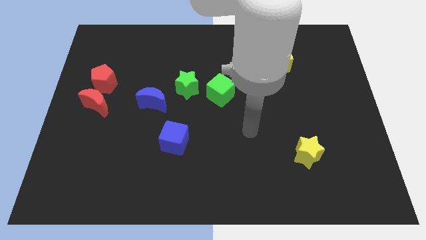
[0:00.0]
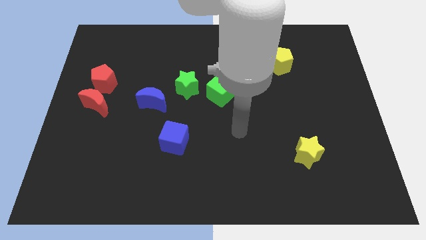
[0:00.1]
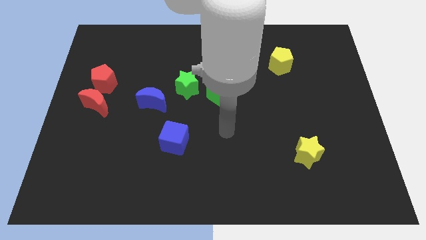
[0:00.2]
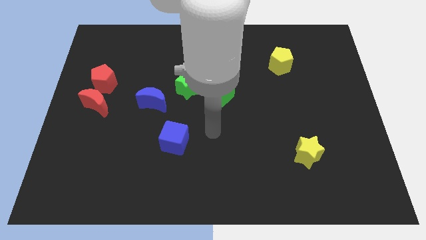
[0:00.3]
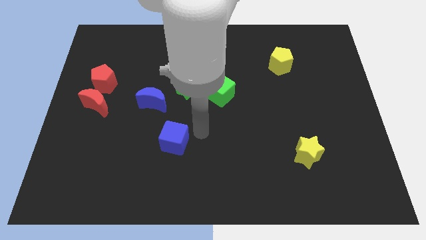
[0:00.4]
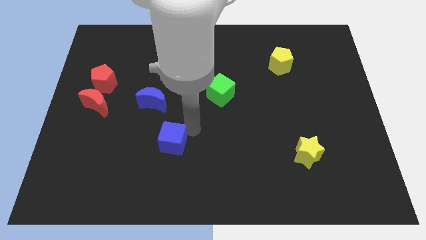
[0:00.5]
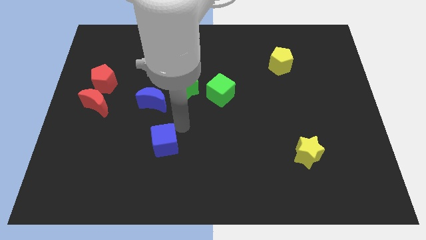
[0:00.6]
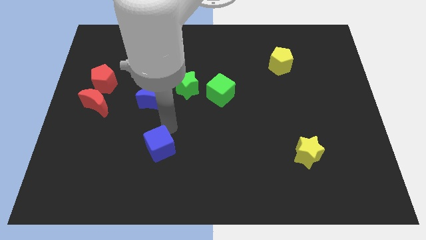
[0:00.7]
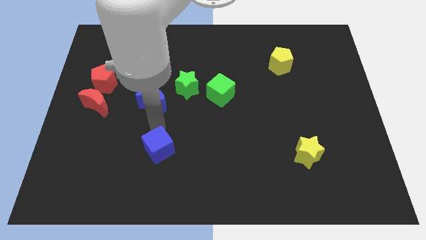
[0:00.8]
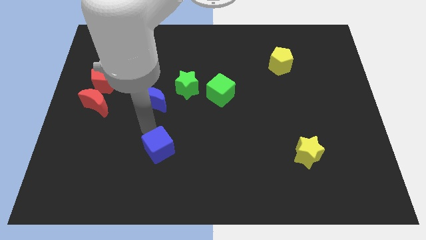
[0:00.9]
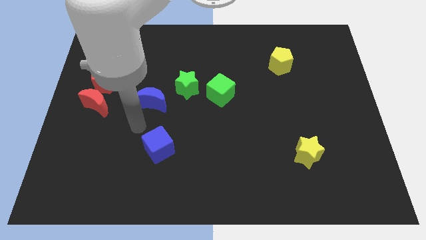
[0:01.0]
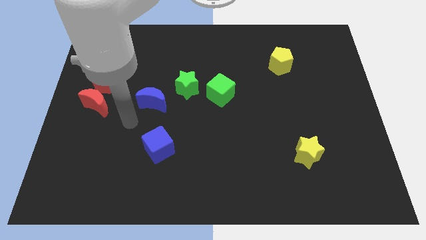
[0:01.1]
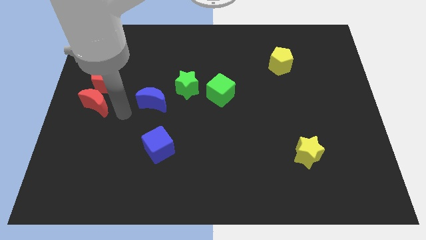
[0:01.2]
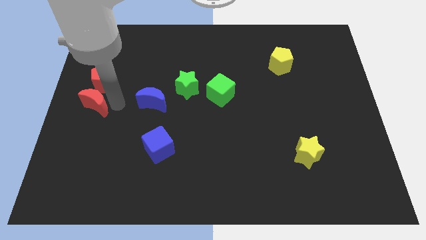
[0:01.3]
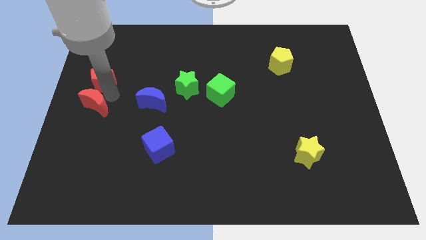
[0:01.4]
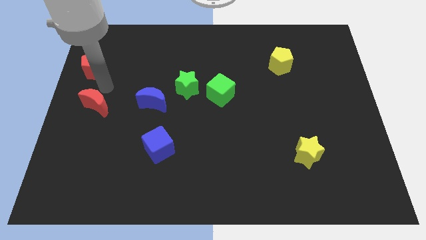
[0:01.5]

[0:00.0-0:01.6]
move the red moon away from the red pentagon

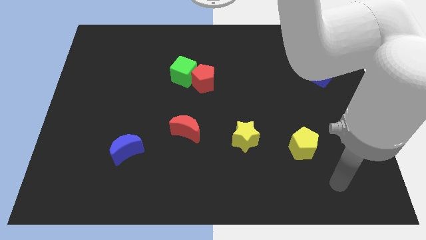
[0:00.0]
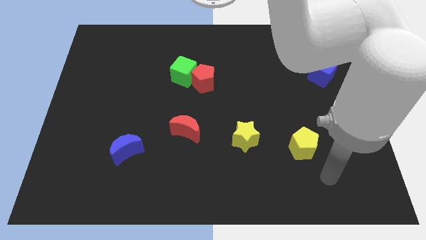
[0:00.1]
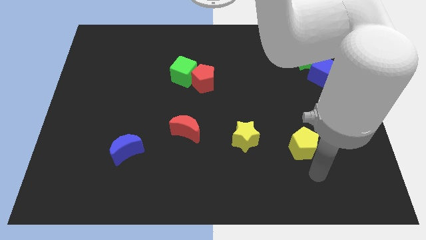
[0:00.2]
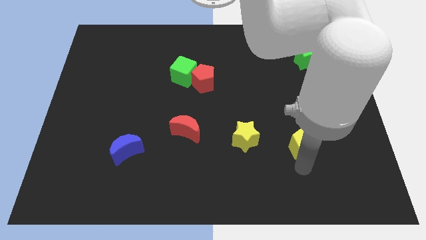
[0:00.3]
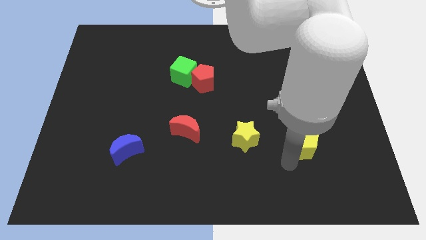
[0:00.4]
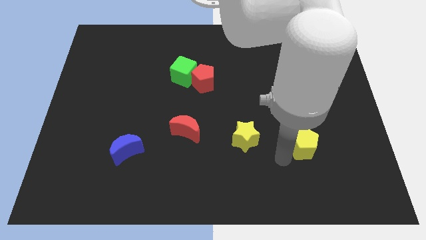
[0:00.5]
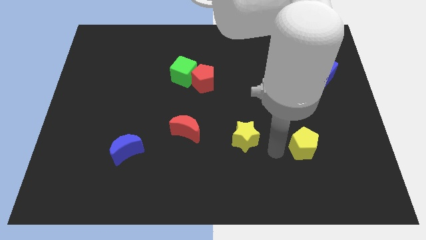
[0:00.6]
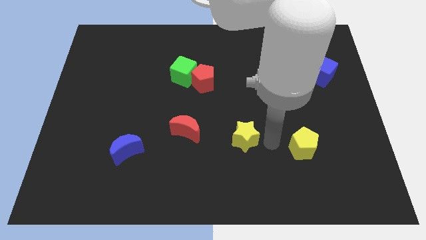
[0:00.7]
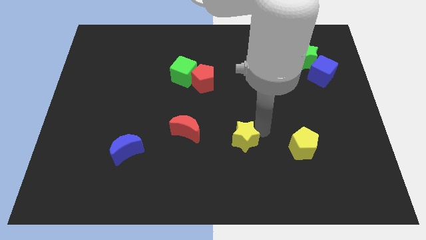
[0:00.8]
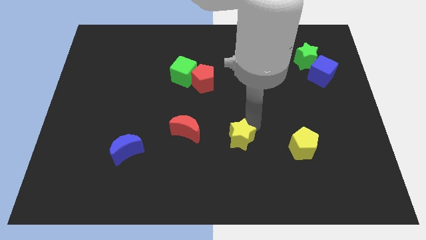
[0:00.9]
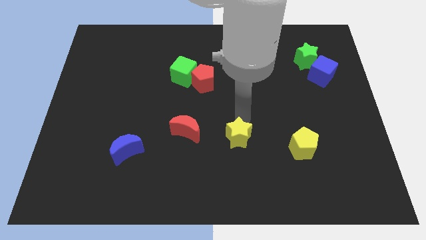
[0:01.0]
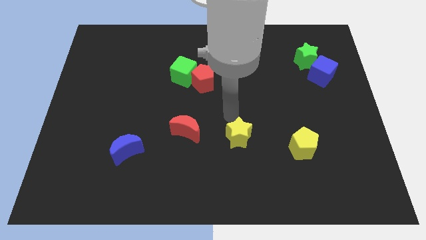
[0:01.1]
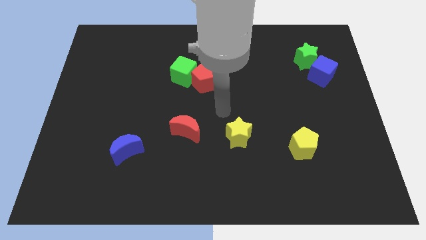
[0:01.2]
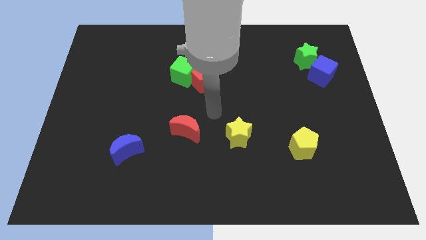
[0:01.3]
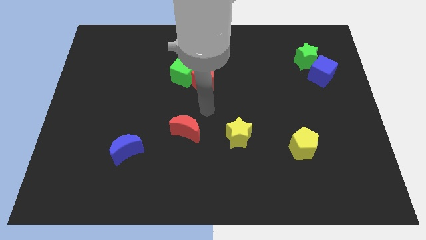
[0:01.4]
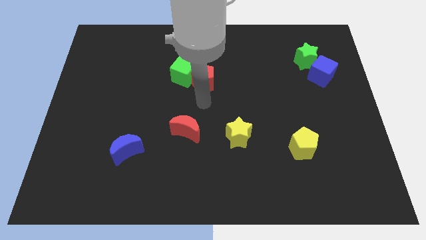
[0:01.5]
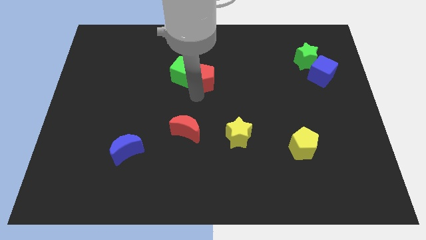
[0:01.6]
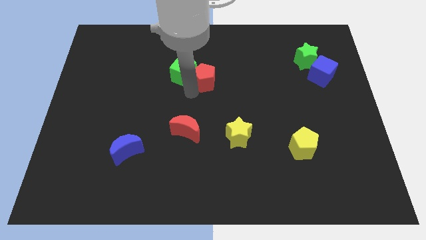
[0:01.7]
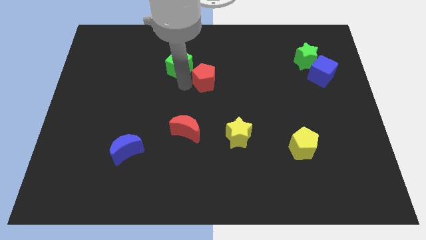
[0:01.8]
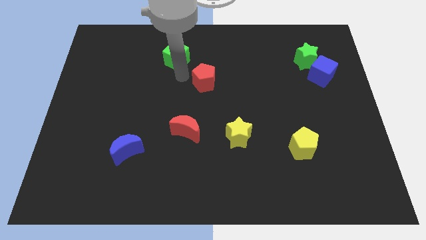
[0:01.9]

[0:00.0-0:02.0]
pull the red pentagon apart from the green cube

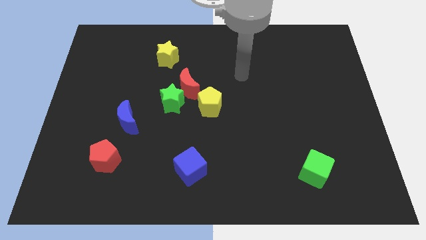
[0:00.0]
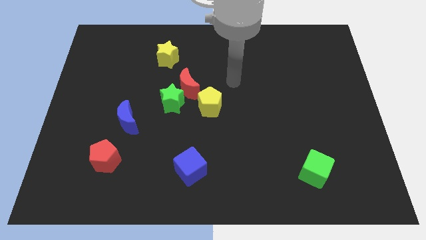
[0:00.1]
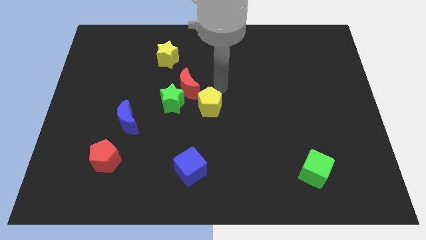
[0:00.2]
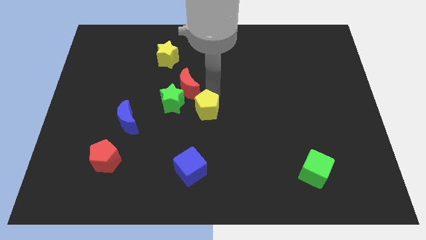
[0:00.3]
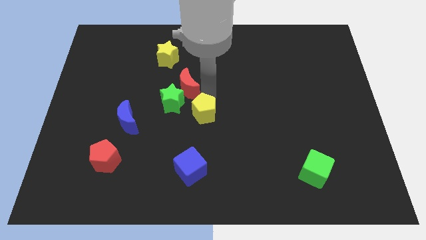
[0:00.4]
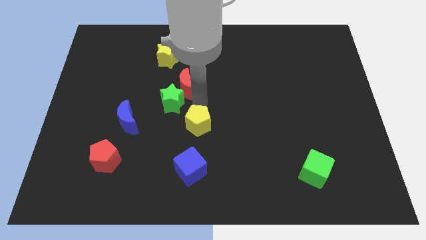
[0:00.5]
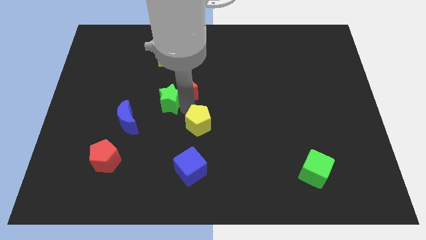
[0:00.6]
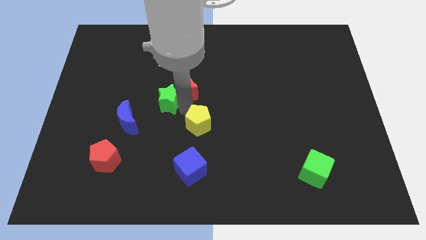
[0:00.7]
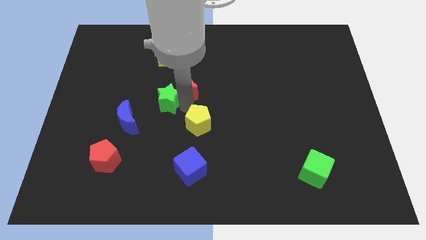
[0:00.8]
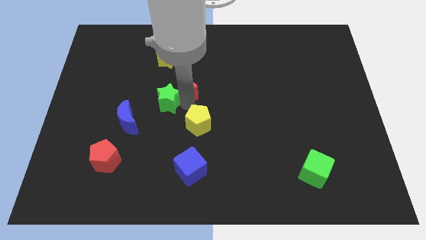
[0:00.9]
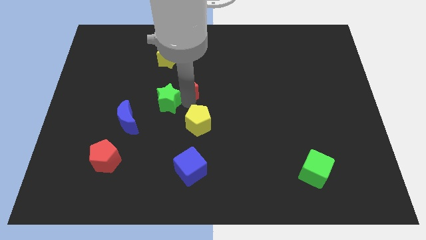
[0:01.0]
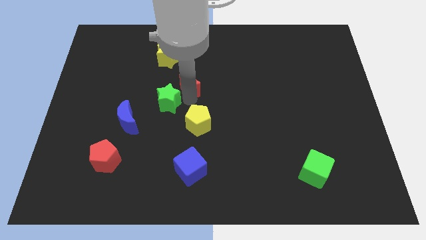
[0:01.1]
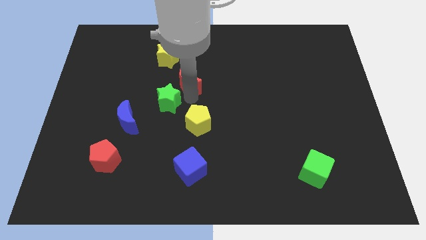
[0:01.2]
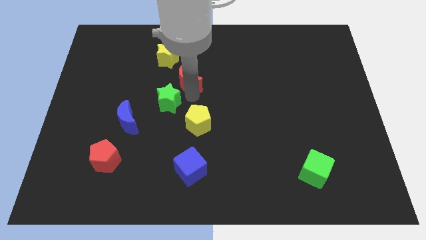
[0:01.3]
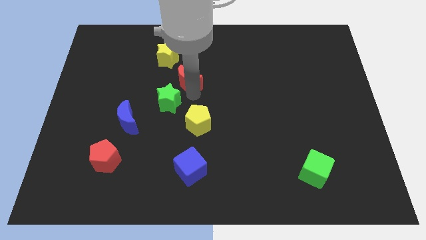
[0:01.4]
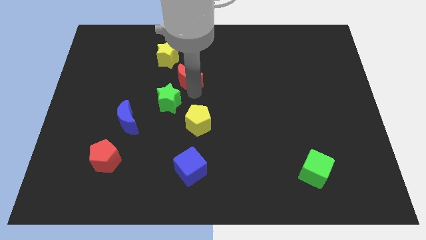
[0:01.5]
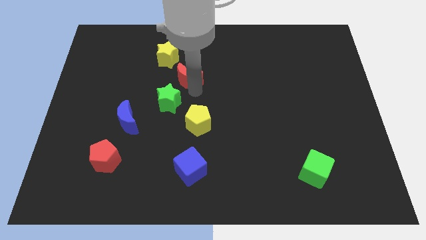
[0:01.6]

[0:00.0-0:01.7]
move the red moon away from the green star and yellow pentagon

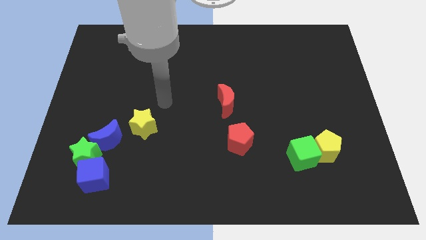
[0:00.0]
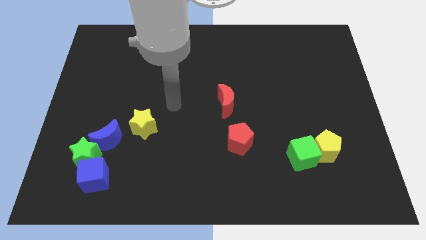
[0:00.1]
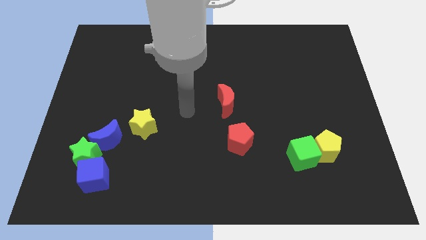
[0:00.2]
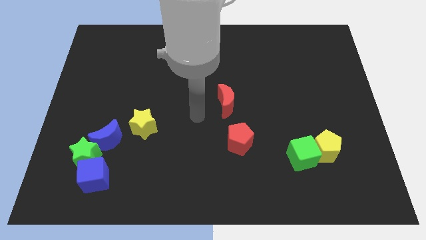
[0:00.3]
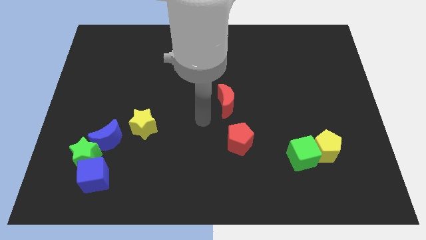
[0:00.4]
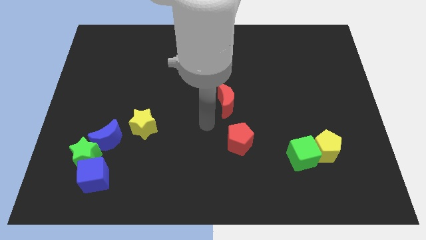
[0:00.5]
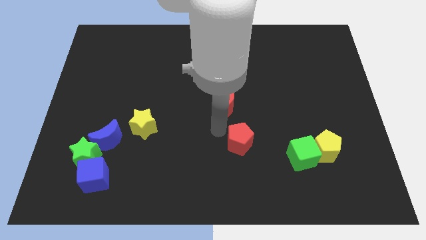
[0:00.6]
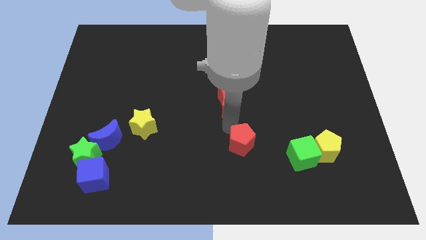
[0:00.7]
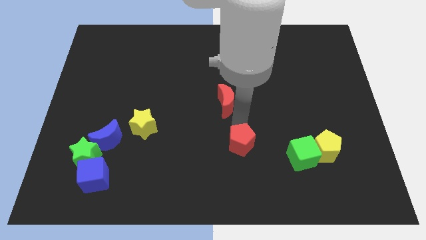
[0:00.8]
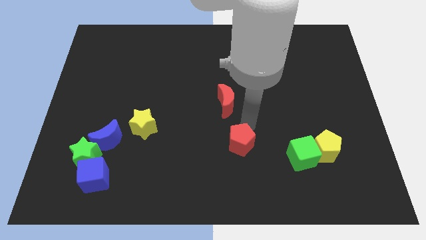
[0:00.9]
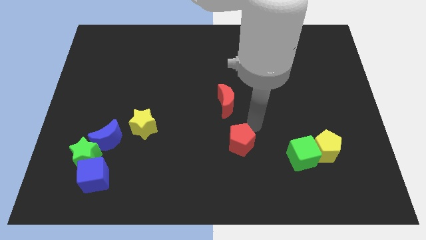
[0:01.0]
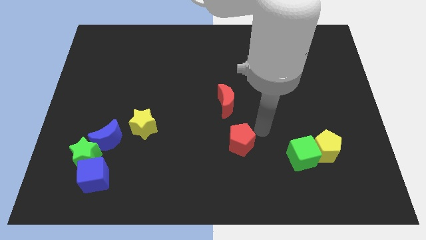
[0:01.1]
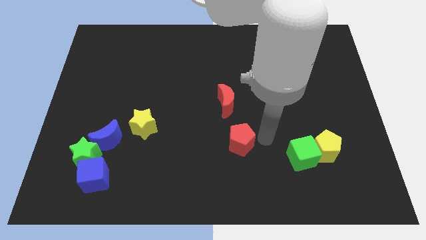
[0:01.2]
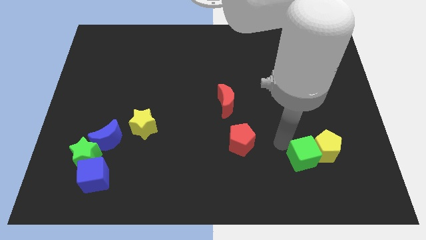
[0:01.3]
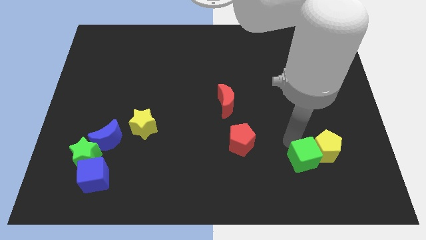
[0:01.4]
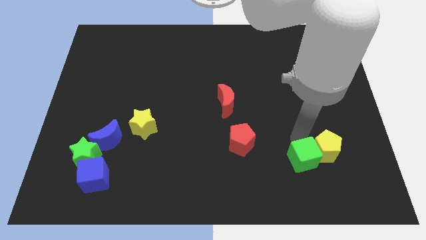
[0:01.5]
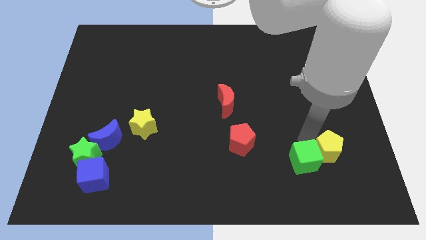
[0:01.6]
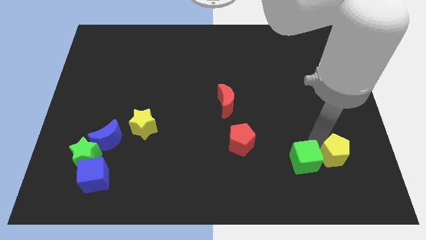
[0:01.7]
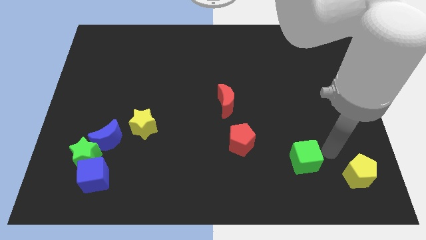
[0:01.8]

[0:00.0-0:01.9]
separate the green cube from the yellow pentagon

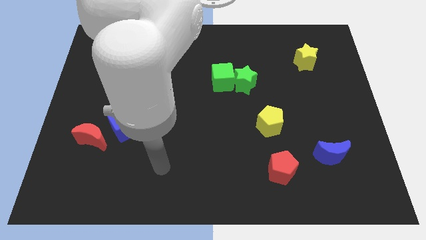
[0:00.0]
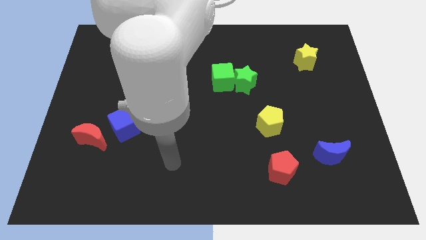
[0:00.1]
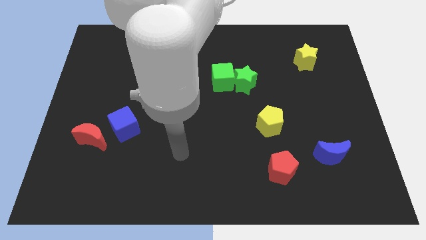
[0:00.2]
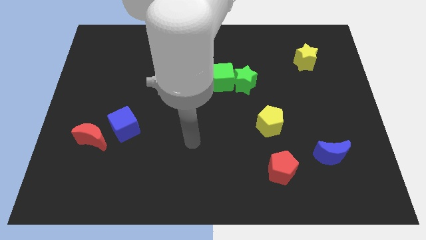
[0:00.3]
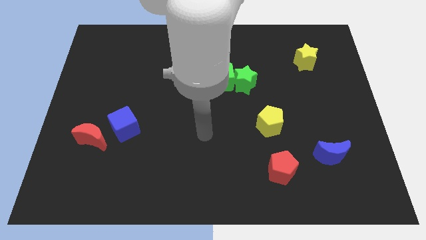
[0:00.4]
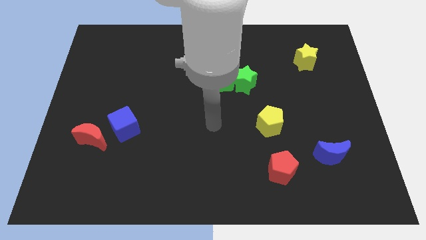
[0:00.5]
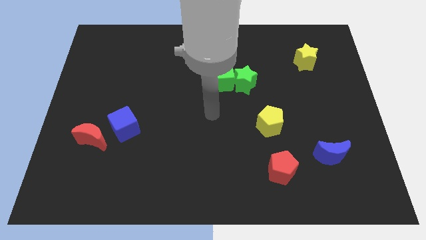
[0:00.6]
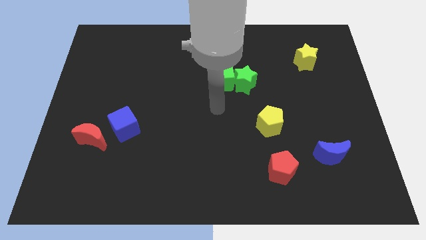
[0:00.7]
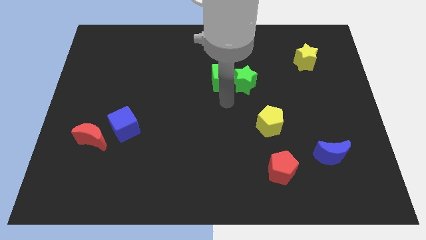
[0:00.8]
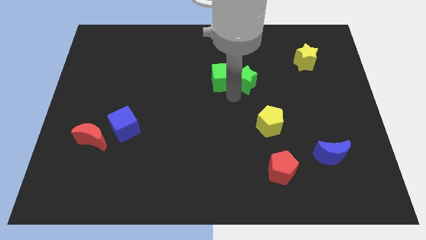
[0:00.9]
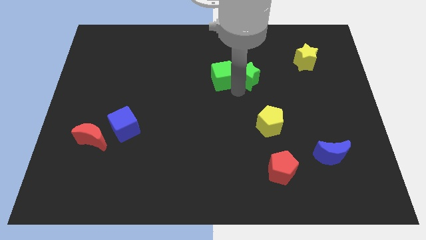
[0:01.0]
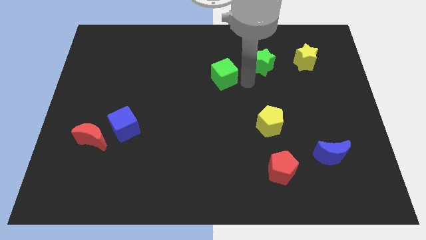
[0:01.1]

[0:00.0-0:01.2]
pull the green cube apart from the green star

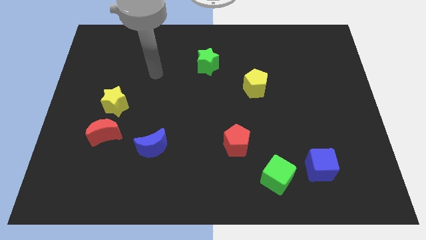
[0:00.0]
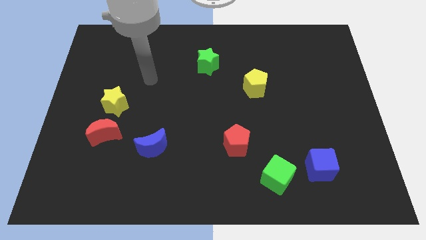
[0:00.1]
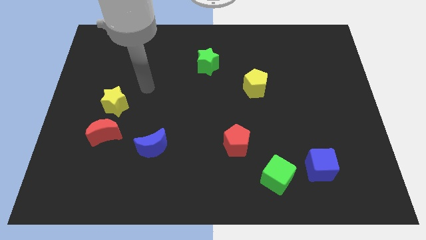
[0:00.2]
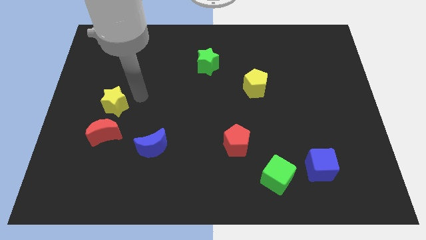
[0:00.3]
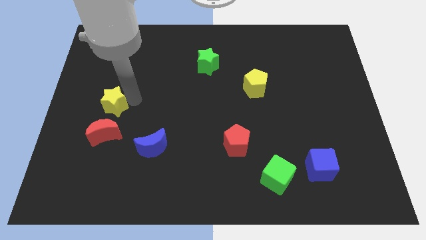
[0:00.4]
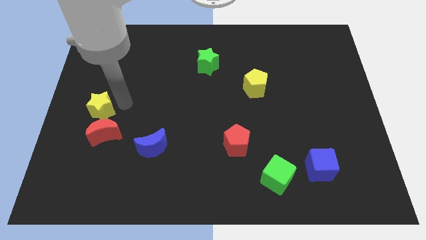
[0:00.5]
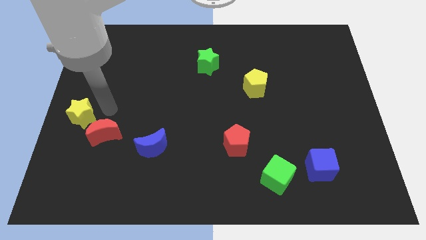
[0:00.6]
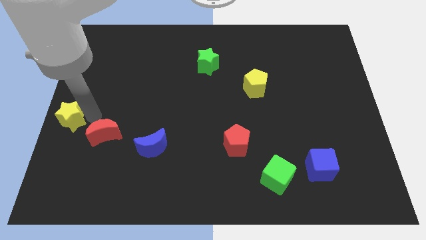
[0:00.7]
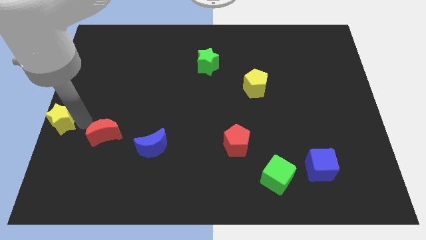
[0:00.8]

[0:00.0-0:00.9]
move the red moon away from the yellow star
